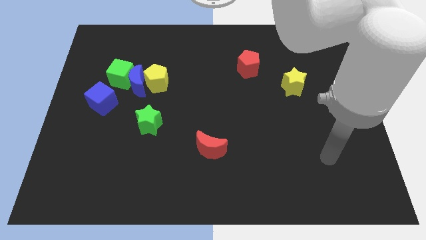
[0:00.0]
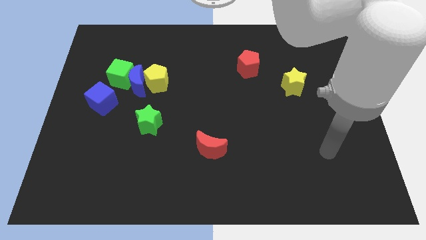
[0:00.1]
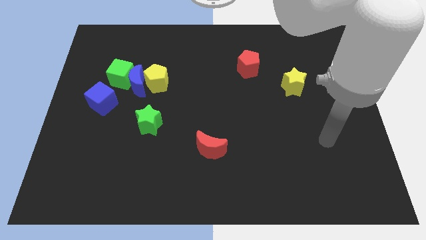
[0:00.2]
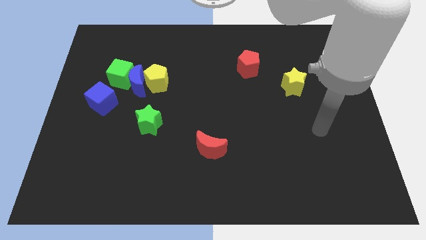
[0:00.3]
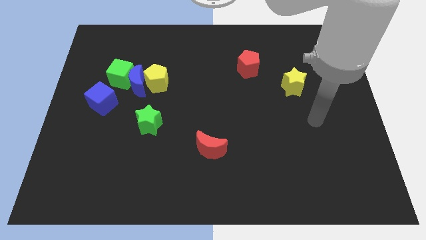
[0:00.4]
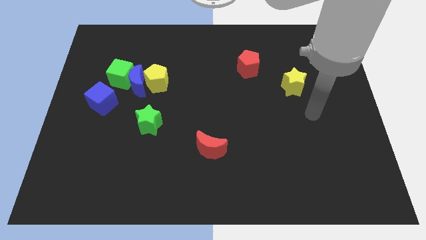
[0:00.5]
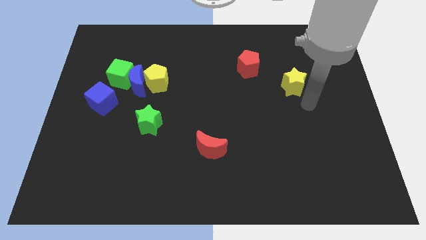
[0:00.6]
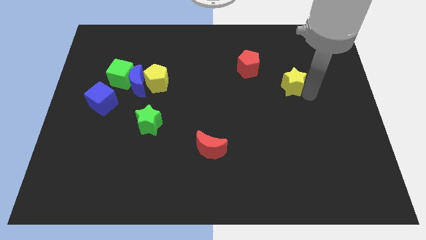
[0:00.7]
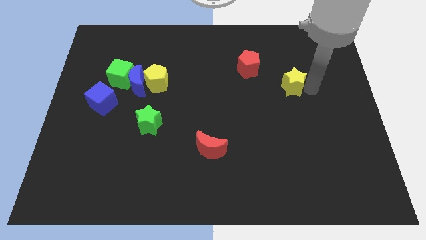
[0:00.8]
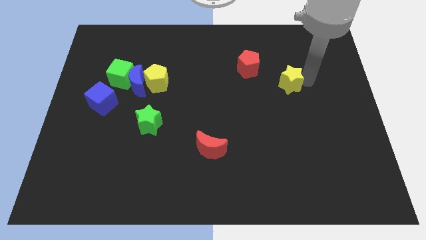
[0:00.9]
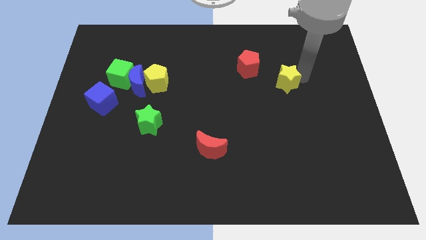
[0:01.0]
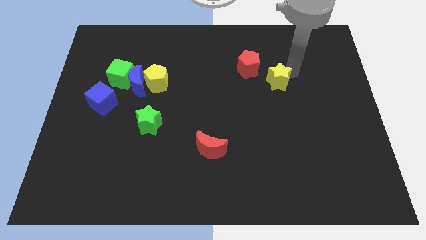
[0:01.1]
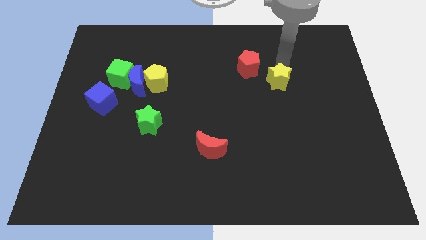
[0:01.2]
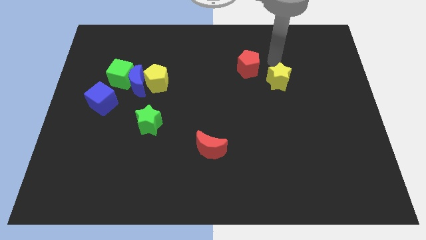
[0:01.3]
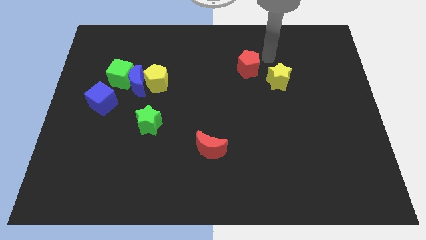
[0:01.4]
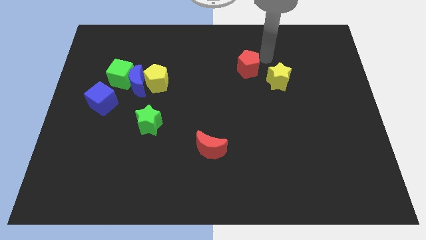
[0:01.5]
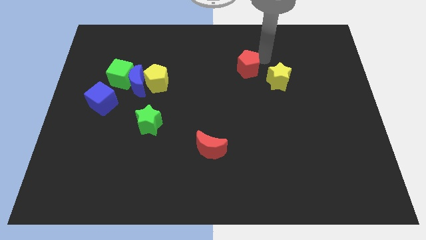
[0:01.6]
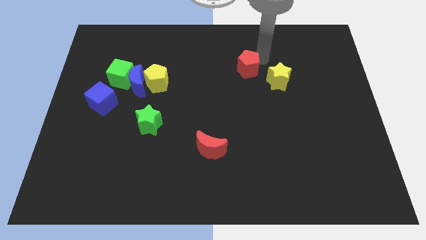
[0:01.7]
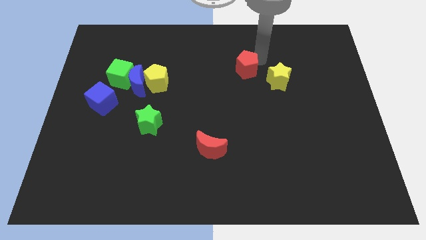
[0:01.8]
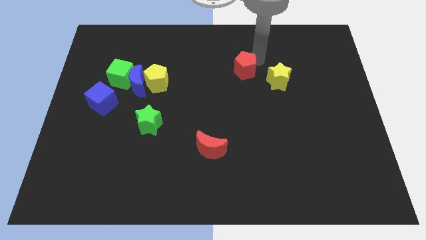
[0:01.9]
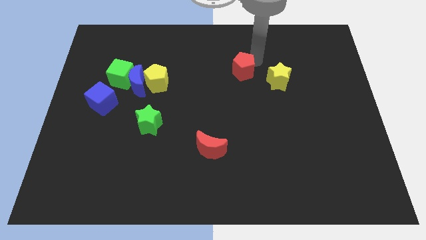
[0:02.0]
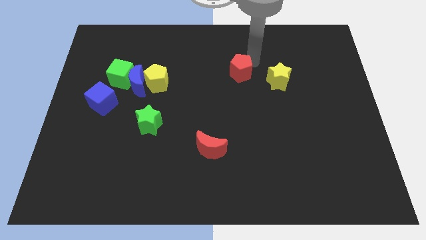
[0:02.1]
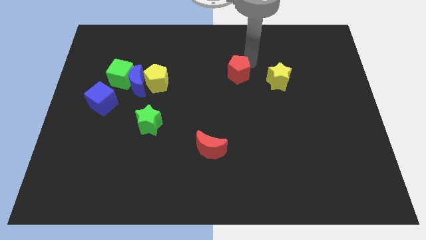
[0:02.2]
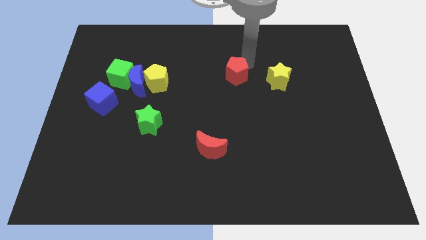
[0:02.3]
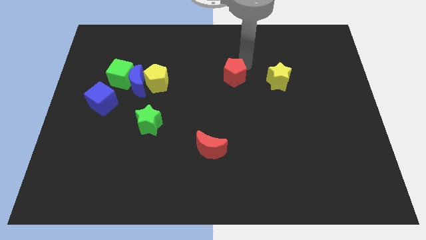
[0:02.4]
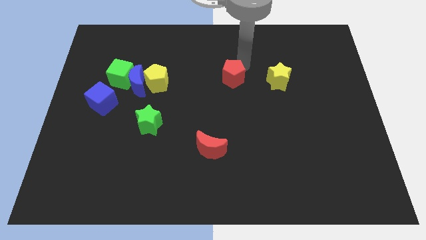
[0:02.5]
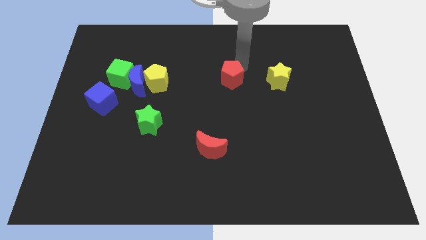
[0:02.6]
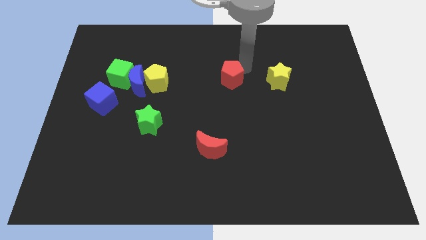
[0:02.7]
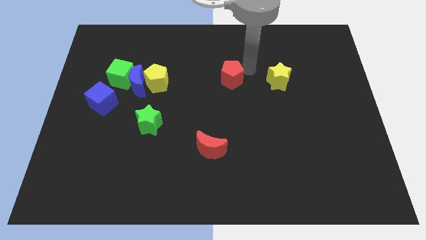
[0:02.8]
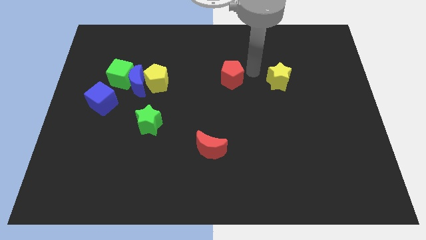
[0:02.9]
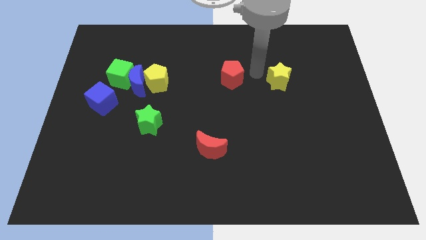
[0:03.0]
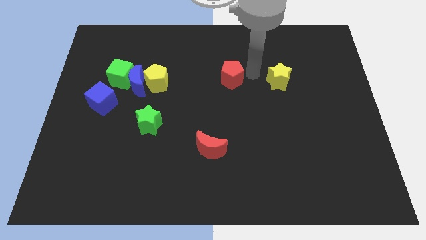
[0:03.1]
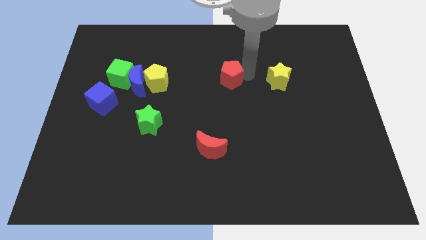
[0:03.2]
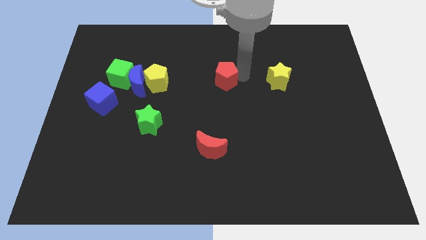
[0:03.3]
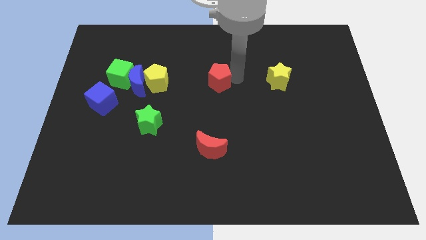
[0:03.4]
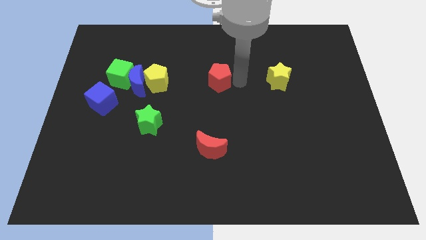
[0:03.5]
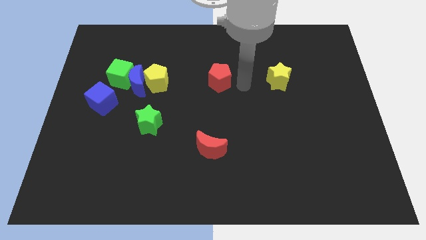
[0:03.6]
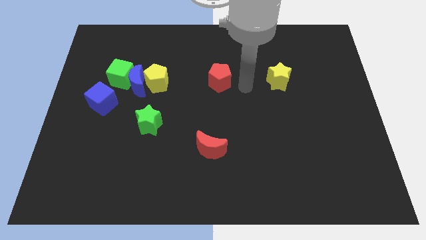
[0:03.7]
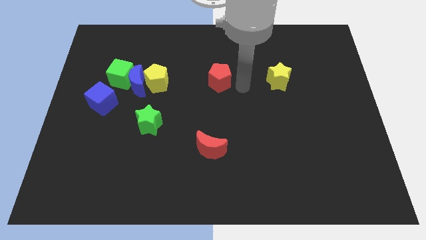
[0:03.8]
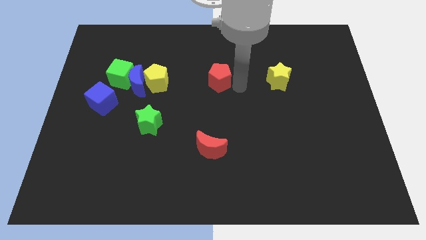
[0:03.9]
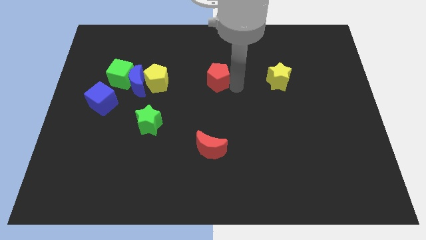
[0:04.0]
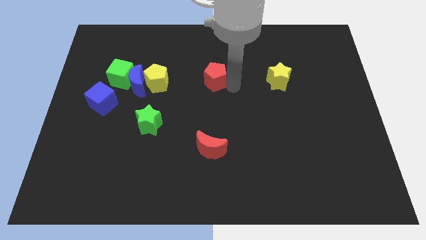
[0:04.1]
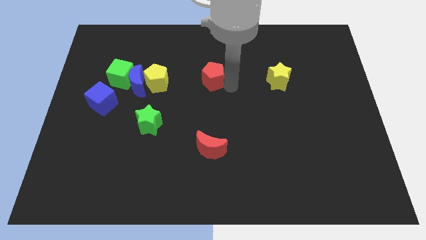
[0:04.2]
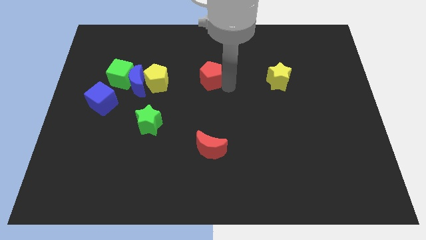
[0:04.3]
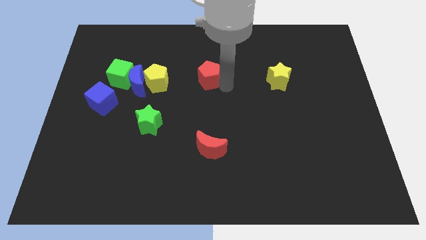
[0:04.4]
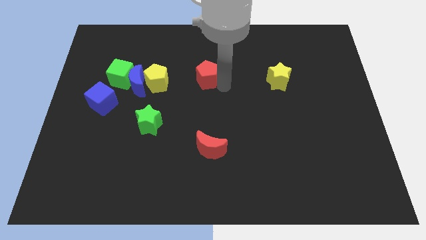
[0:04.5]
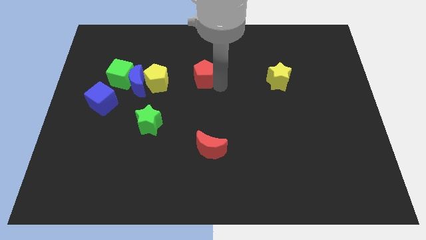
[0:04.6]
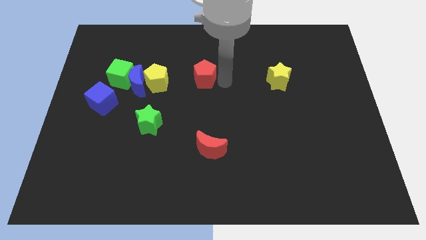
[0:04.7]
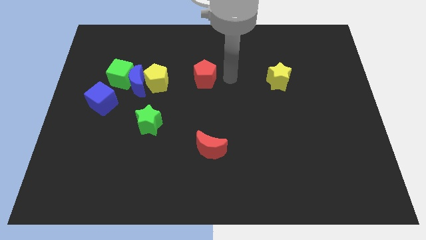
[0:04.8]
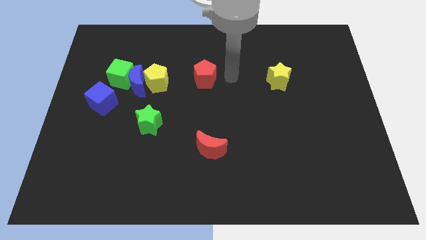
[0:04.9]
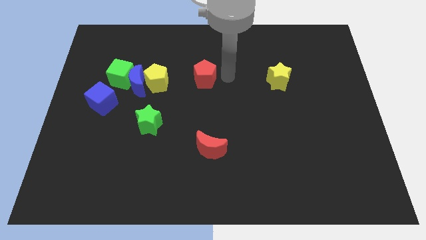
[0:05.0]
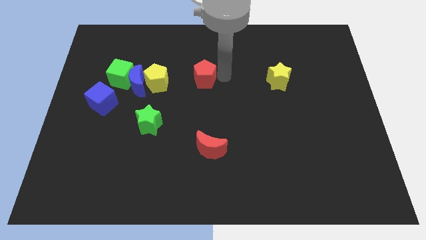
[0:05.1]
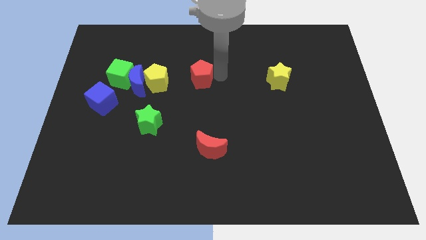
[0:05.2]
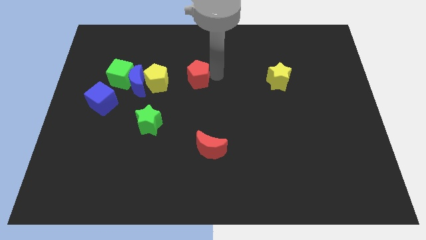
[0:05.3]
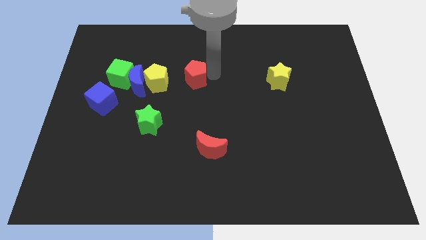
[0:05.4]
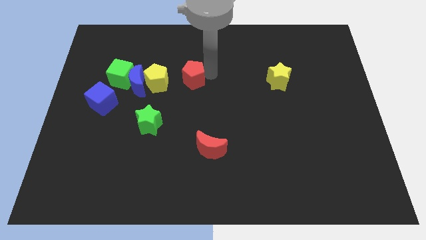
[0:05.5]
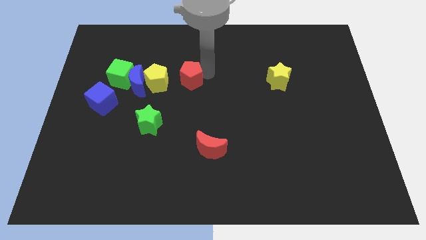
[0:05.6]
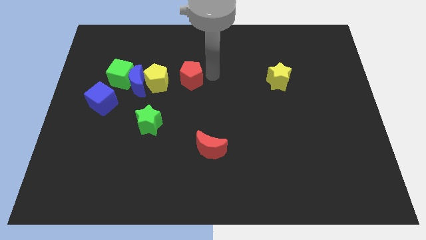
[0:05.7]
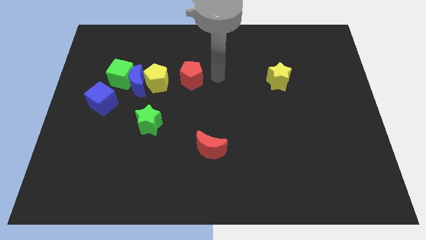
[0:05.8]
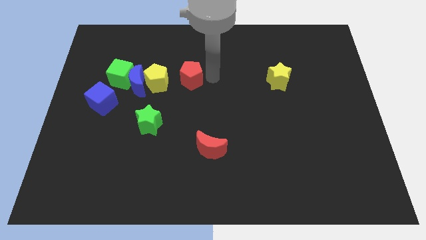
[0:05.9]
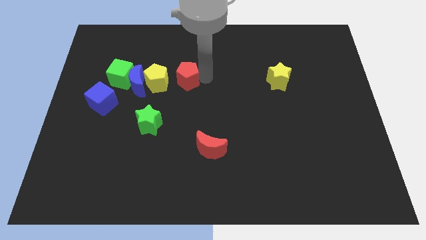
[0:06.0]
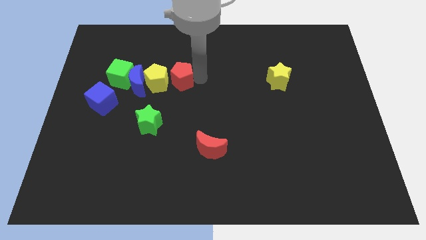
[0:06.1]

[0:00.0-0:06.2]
push the red pentagon to the yellow pentagon

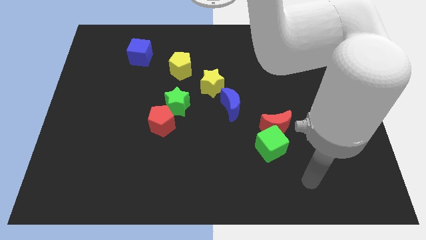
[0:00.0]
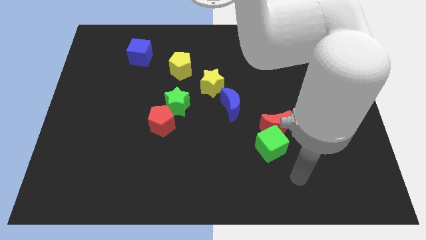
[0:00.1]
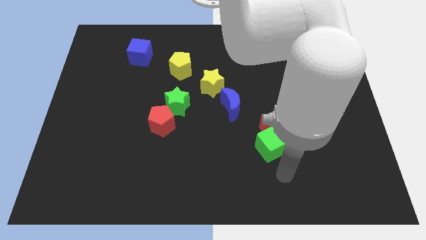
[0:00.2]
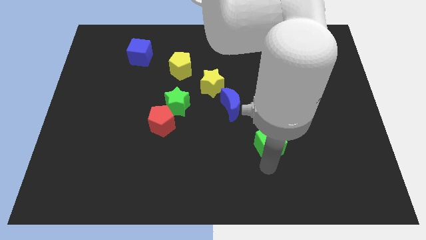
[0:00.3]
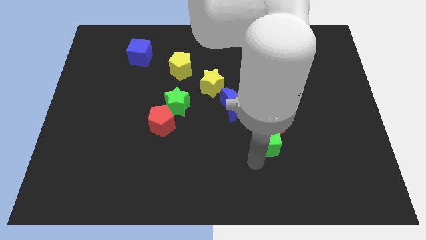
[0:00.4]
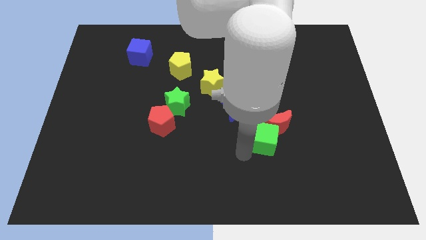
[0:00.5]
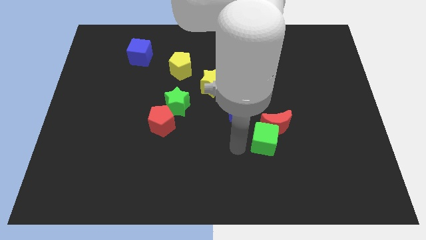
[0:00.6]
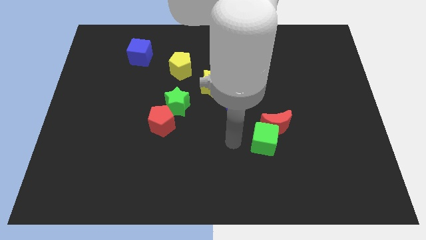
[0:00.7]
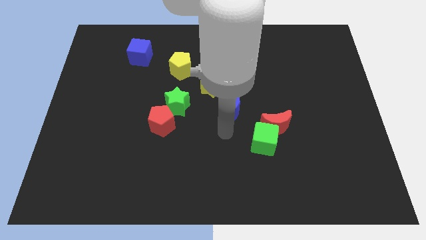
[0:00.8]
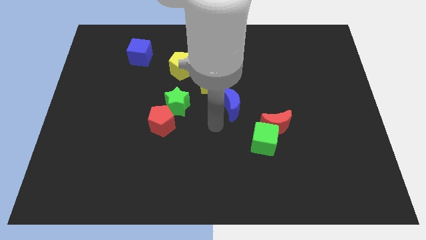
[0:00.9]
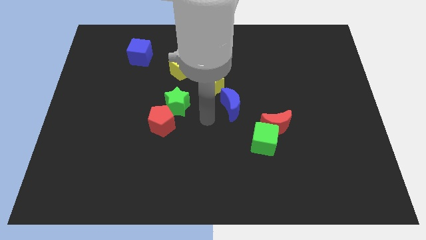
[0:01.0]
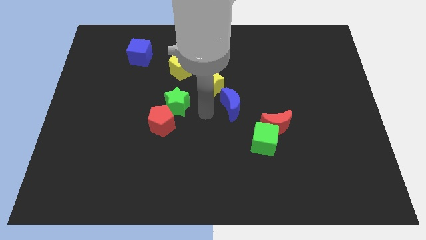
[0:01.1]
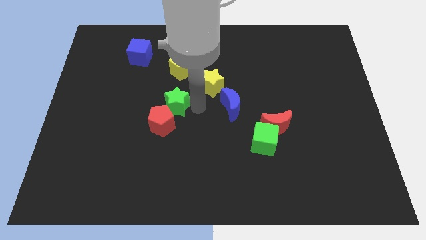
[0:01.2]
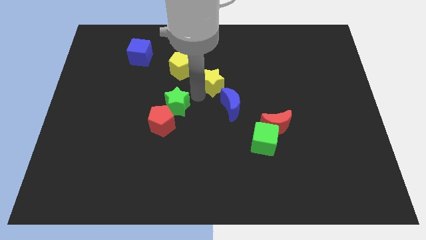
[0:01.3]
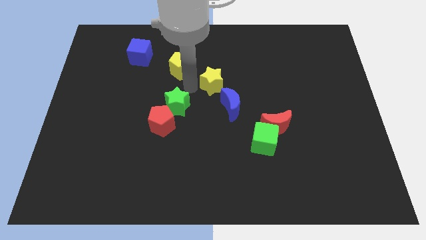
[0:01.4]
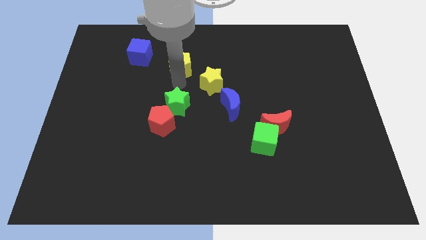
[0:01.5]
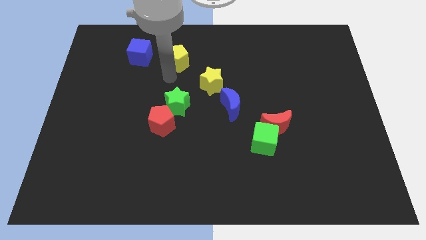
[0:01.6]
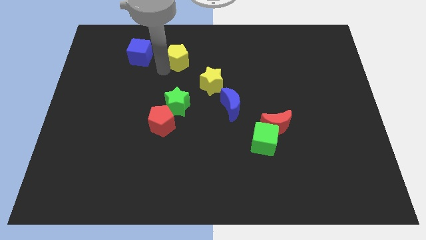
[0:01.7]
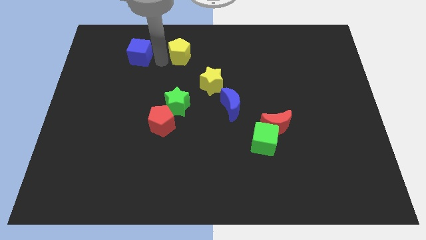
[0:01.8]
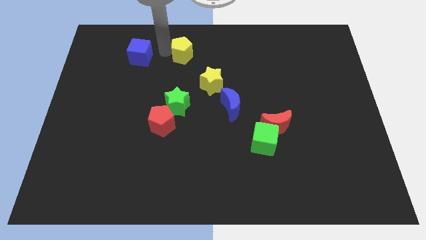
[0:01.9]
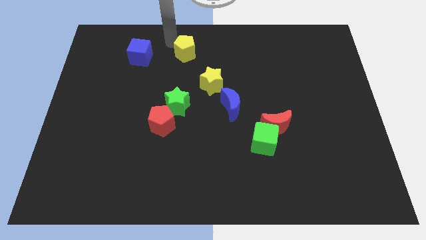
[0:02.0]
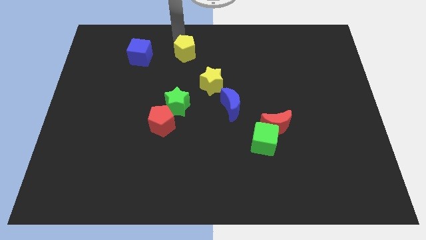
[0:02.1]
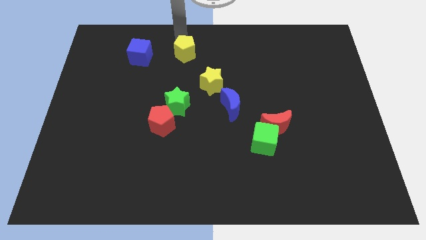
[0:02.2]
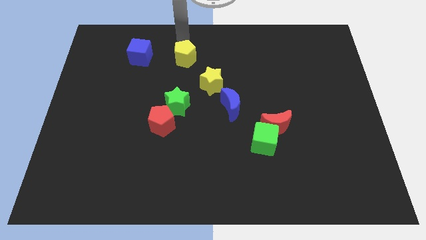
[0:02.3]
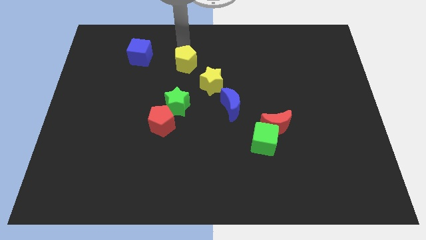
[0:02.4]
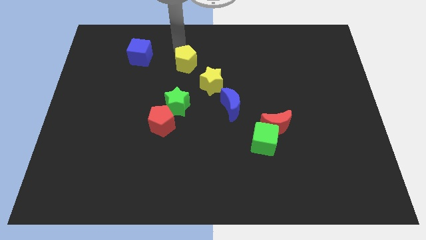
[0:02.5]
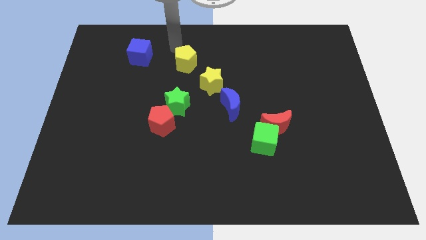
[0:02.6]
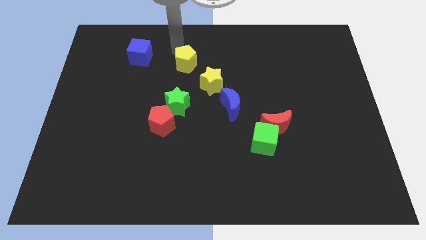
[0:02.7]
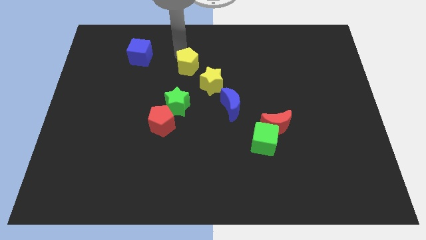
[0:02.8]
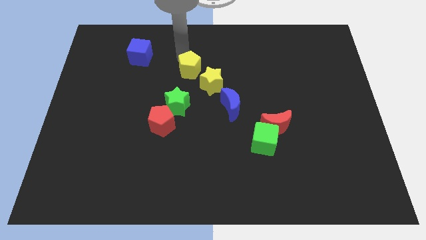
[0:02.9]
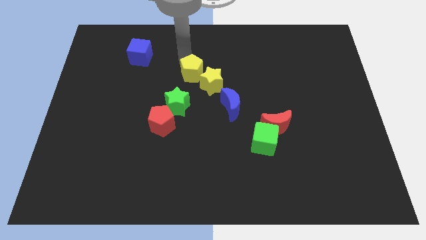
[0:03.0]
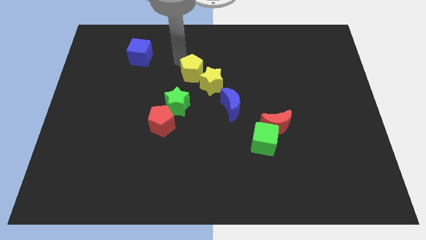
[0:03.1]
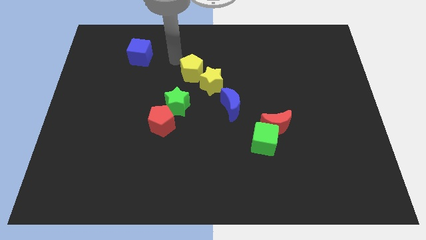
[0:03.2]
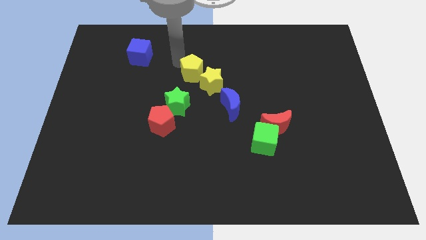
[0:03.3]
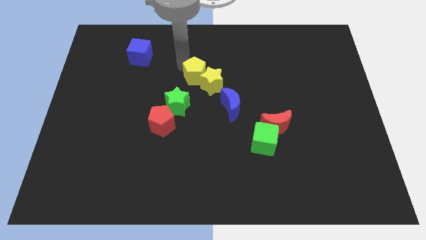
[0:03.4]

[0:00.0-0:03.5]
push the yellow pentagon close to the yellow star
